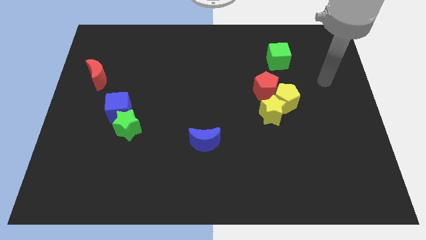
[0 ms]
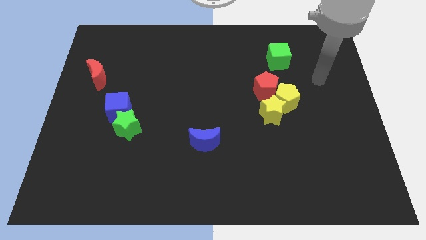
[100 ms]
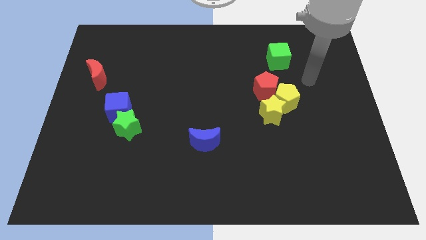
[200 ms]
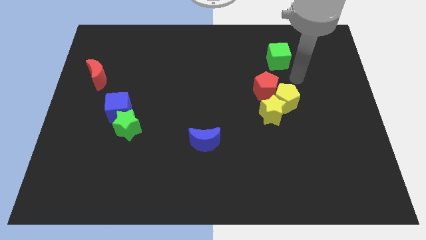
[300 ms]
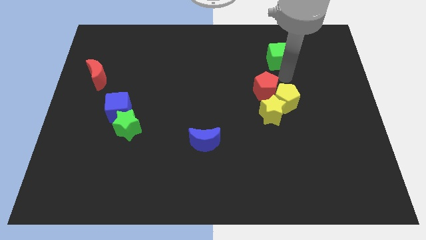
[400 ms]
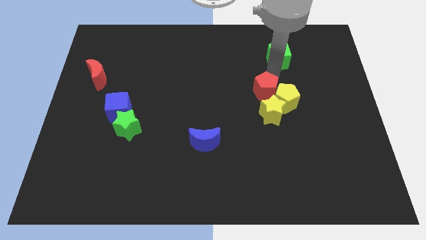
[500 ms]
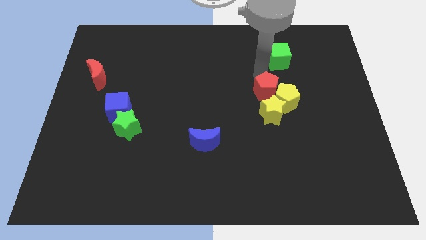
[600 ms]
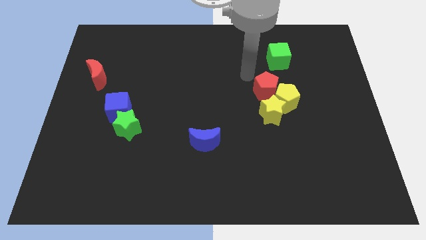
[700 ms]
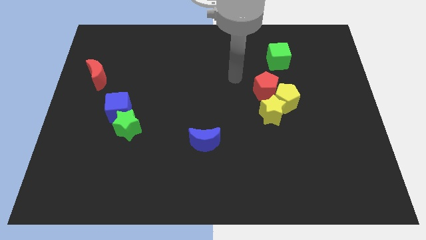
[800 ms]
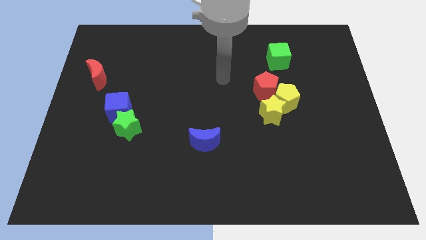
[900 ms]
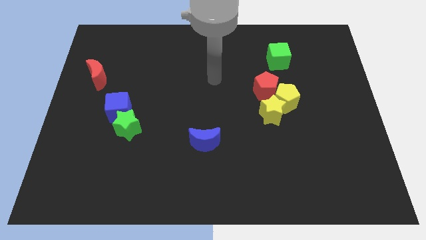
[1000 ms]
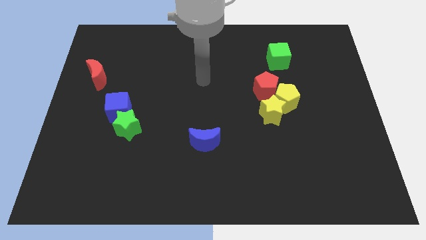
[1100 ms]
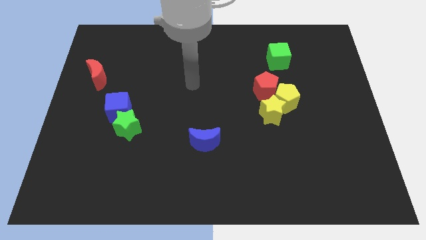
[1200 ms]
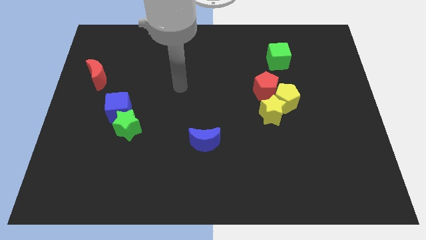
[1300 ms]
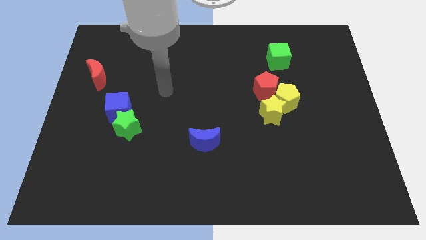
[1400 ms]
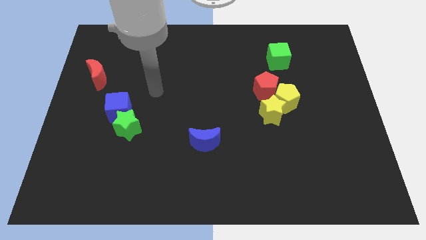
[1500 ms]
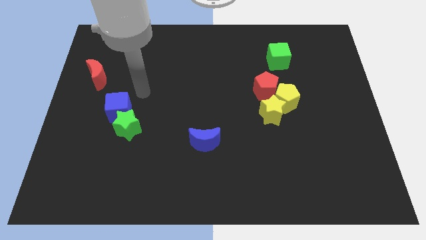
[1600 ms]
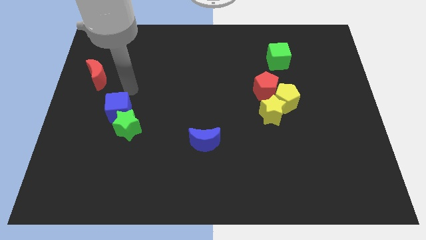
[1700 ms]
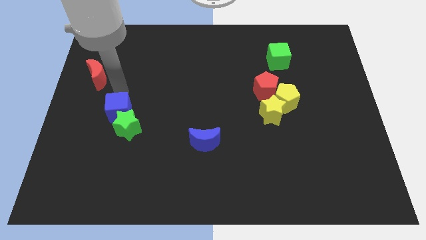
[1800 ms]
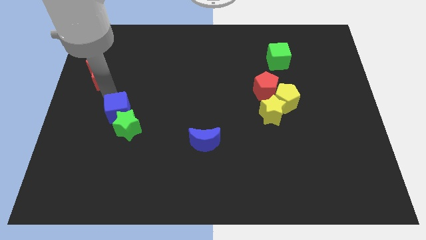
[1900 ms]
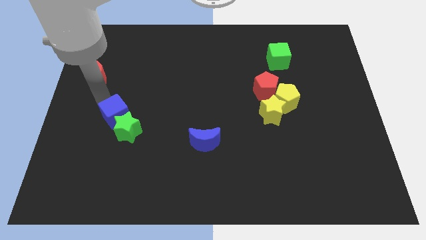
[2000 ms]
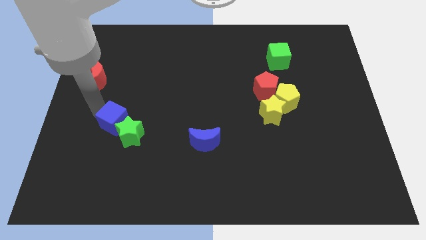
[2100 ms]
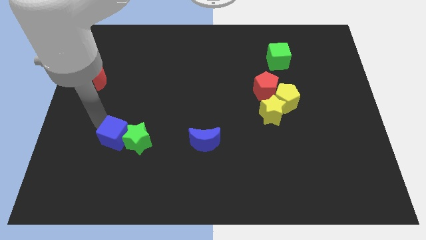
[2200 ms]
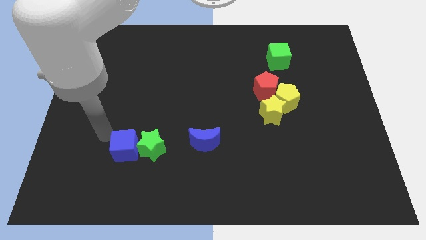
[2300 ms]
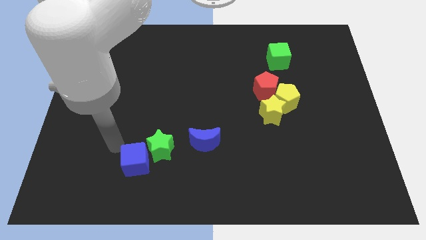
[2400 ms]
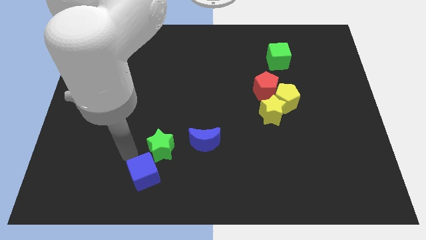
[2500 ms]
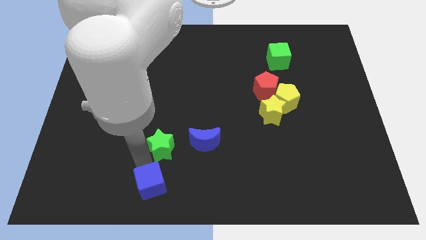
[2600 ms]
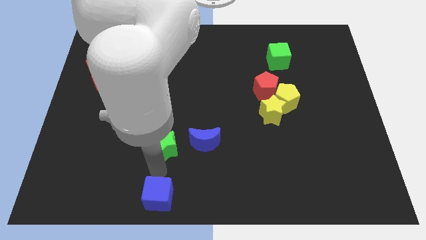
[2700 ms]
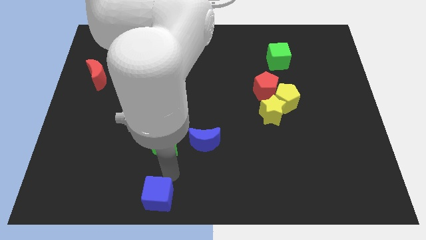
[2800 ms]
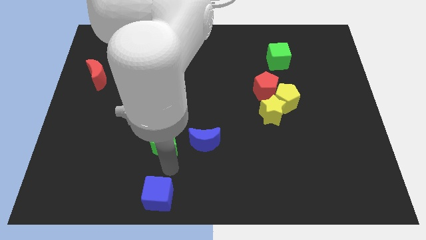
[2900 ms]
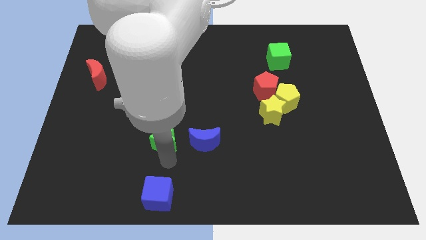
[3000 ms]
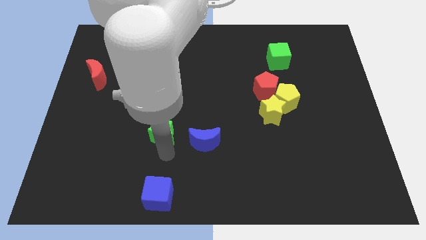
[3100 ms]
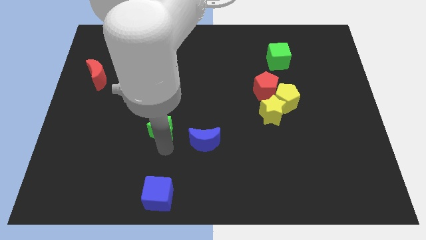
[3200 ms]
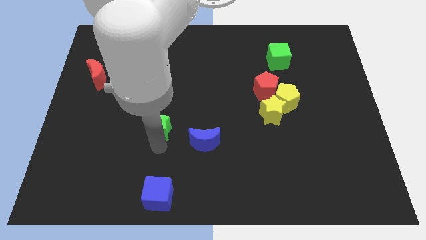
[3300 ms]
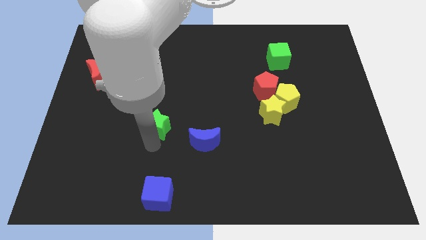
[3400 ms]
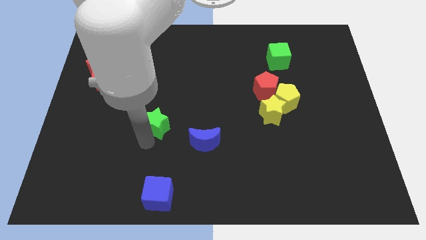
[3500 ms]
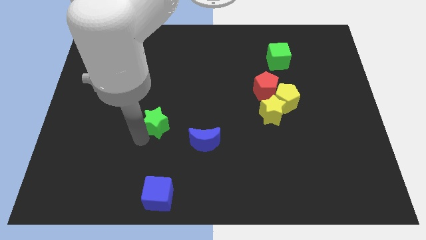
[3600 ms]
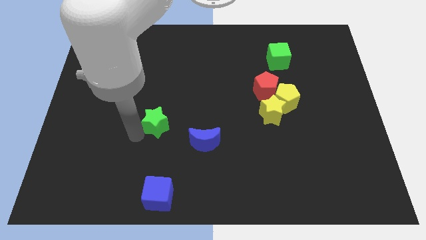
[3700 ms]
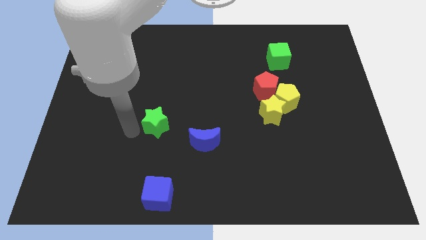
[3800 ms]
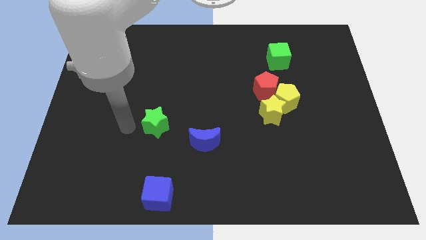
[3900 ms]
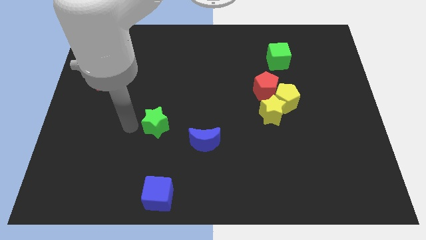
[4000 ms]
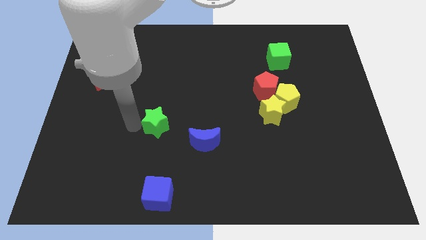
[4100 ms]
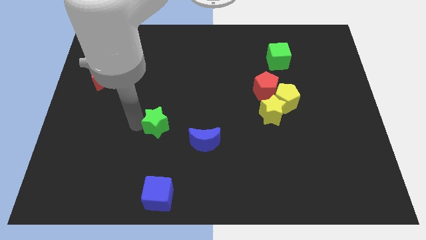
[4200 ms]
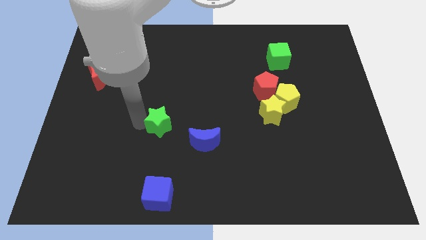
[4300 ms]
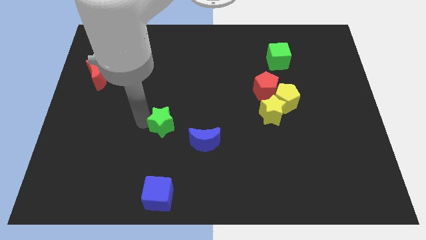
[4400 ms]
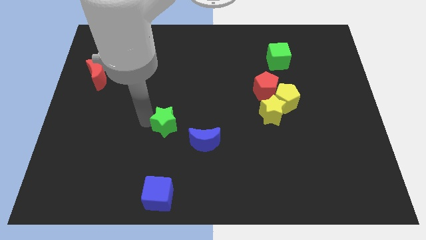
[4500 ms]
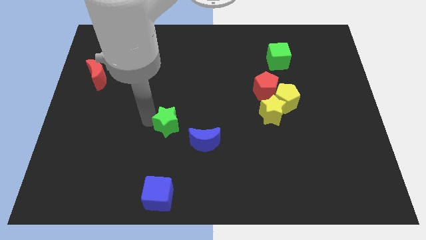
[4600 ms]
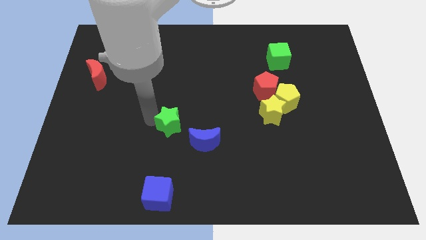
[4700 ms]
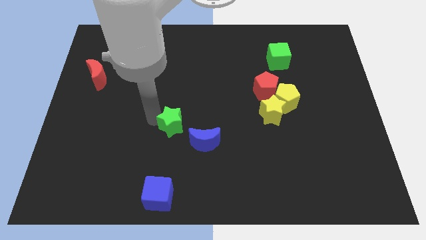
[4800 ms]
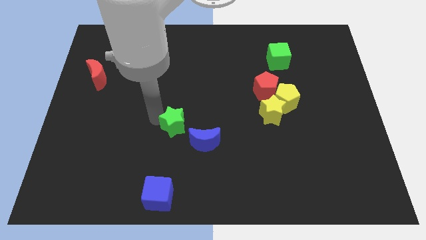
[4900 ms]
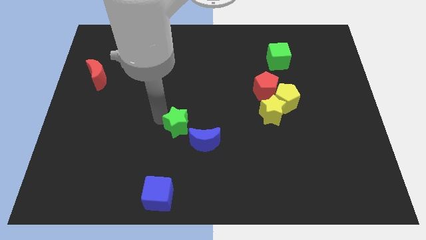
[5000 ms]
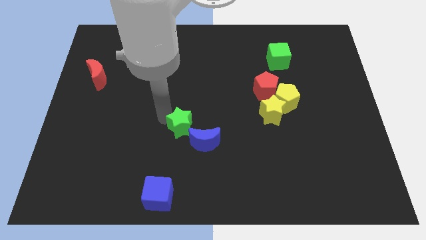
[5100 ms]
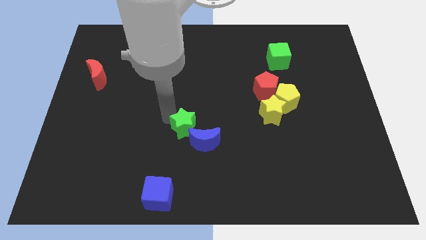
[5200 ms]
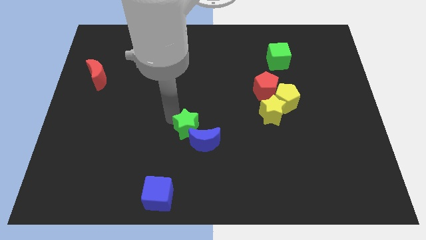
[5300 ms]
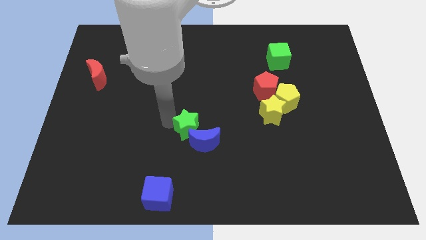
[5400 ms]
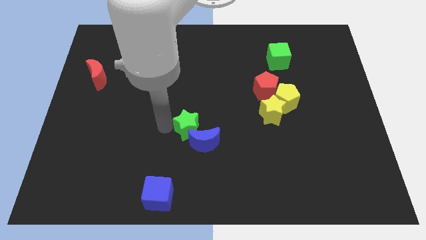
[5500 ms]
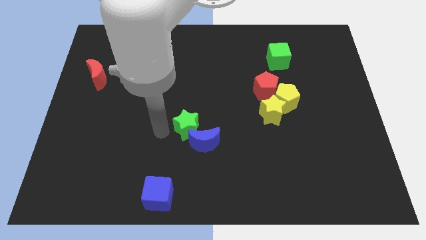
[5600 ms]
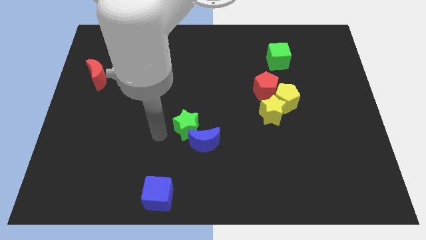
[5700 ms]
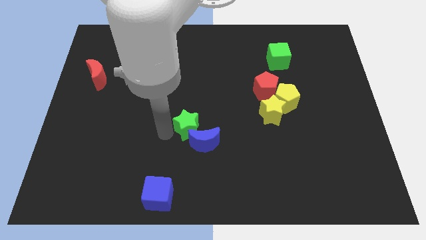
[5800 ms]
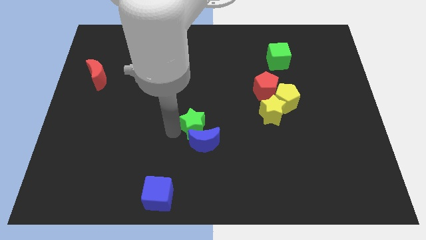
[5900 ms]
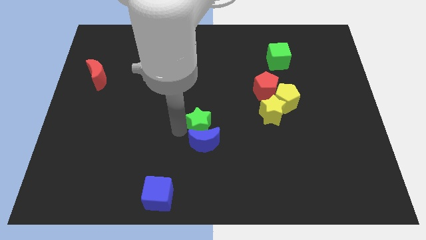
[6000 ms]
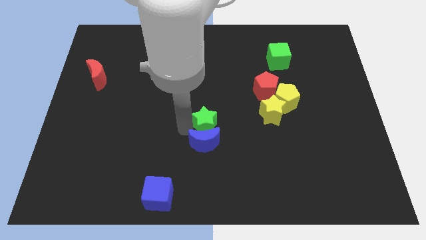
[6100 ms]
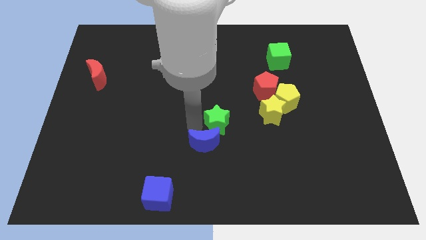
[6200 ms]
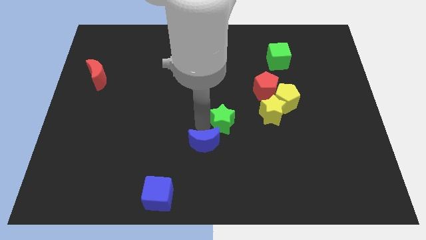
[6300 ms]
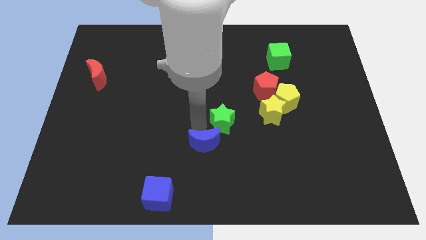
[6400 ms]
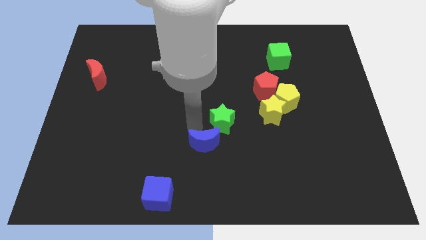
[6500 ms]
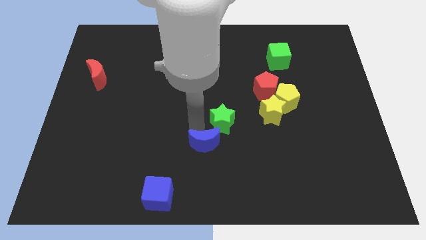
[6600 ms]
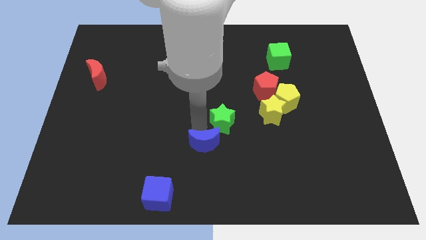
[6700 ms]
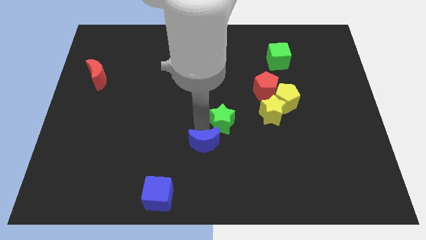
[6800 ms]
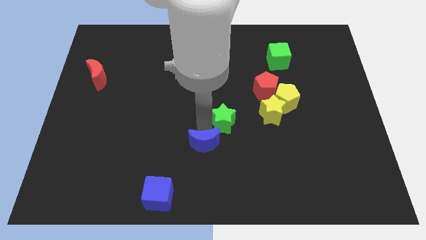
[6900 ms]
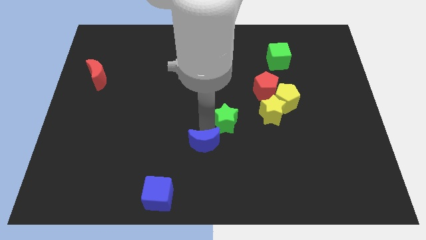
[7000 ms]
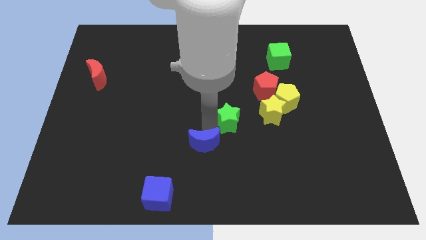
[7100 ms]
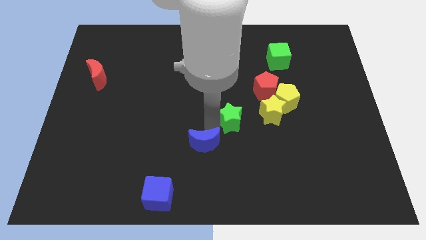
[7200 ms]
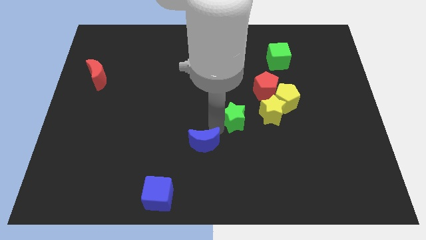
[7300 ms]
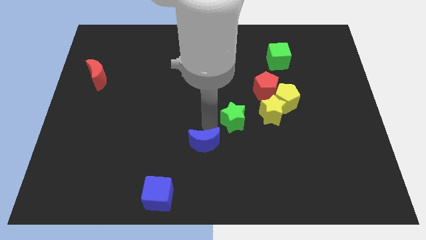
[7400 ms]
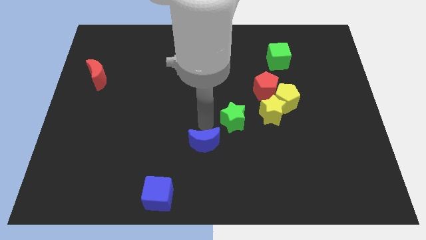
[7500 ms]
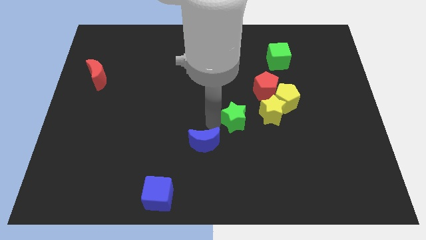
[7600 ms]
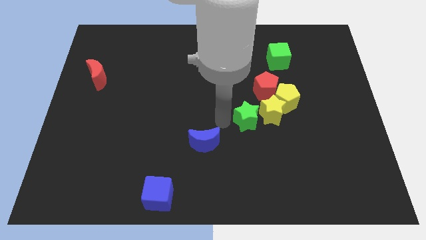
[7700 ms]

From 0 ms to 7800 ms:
slide the green star towards the yellow star
